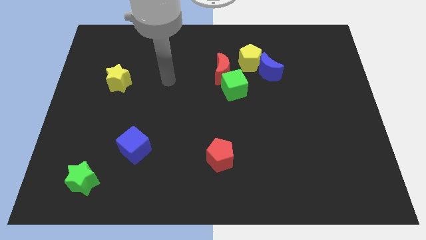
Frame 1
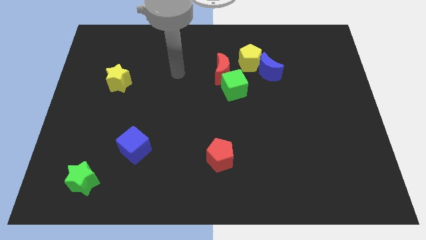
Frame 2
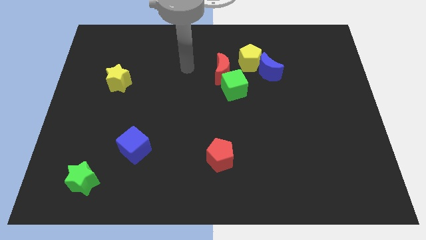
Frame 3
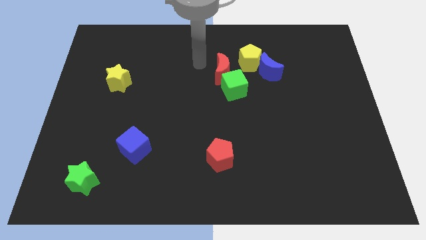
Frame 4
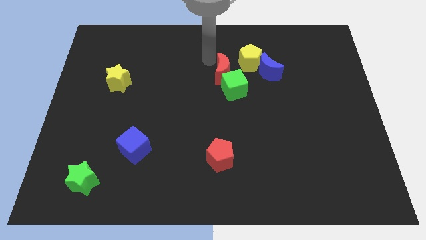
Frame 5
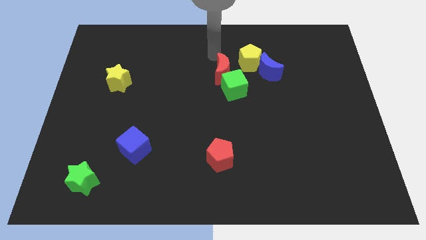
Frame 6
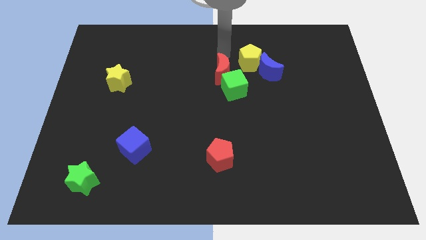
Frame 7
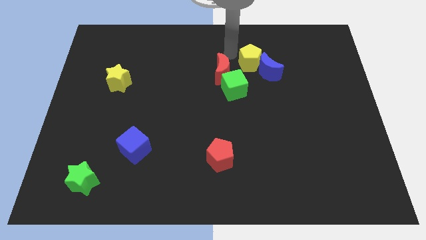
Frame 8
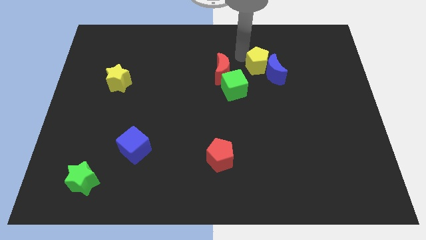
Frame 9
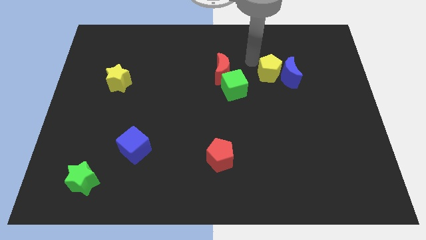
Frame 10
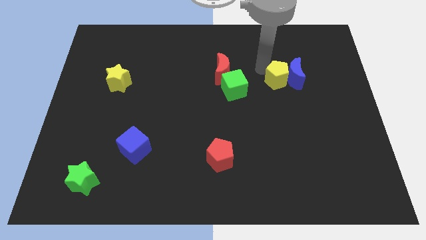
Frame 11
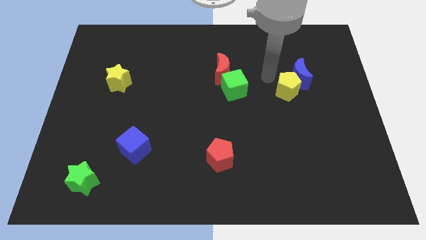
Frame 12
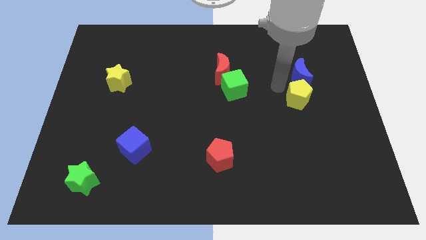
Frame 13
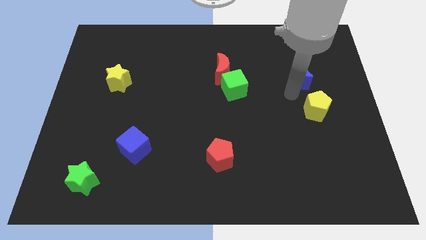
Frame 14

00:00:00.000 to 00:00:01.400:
move the blue moon away from the yellow pentagon

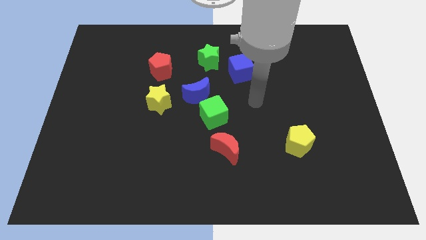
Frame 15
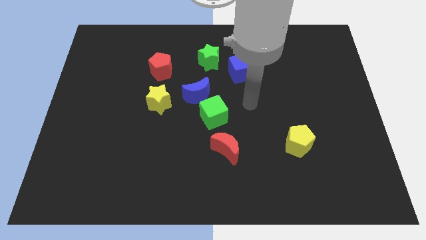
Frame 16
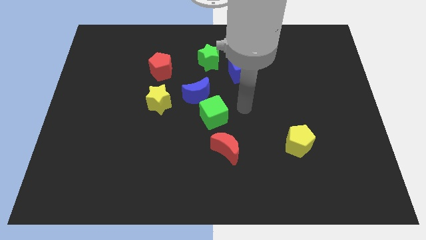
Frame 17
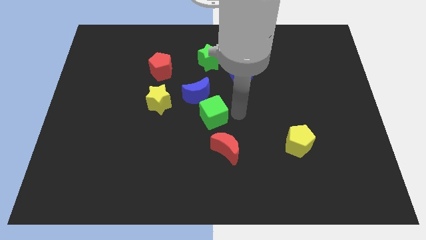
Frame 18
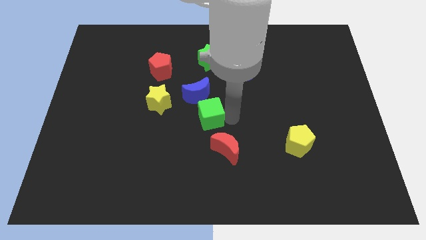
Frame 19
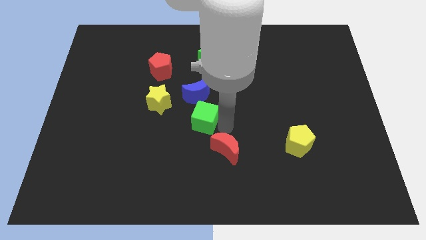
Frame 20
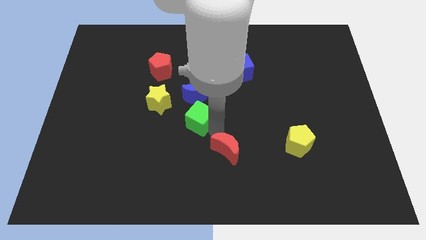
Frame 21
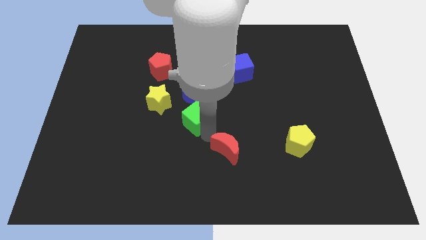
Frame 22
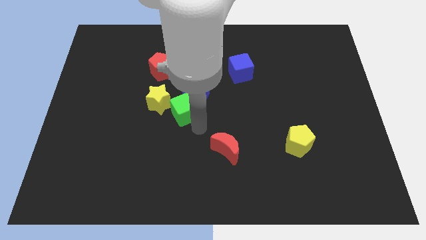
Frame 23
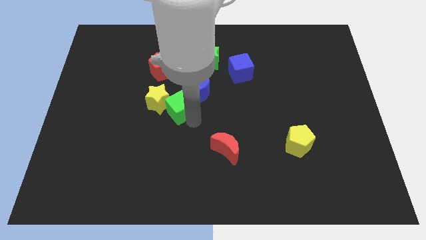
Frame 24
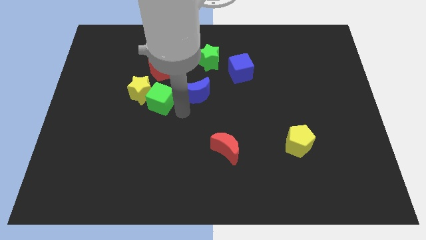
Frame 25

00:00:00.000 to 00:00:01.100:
separate the blue moon from the green cube and yellow star

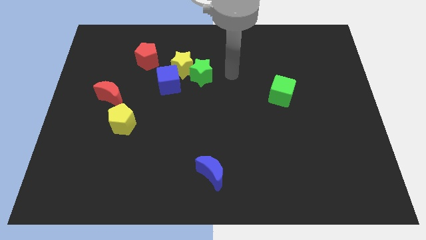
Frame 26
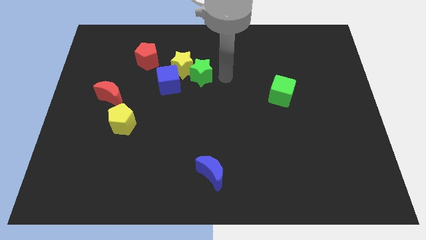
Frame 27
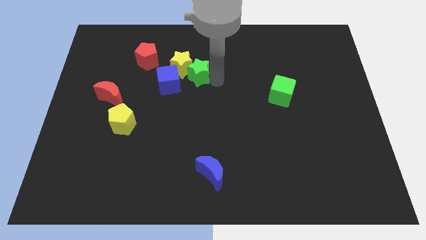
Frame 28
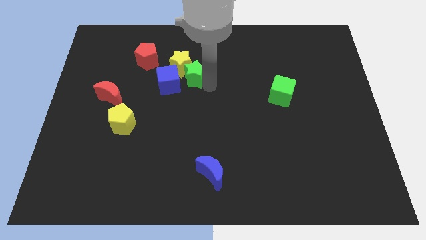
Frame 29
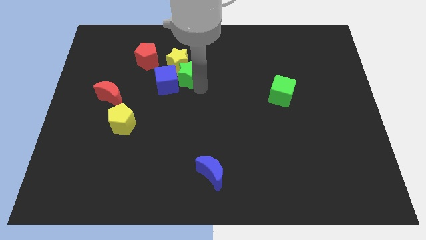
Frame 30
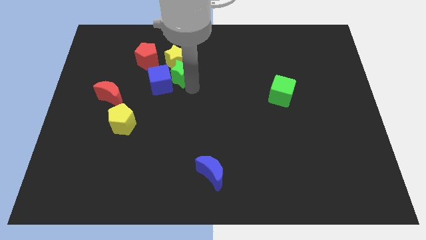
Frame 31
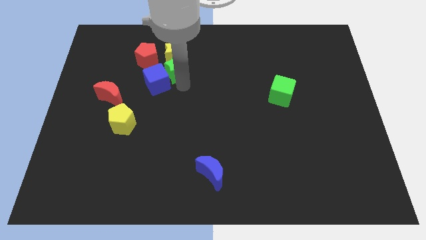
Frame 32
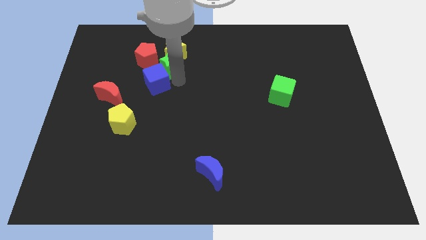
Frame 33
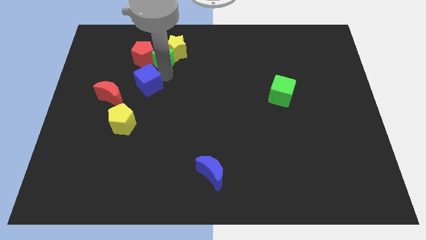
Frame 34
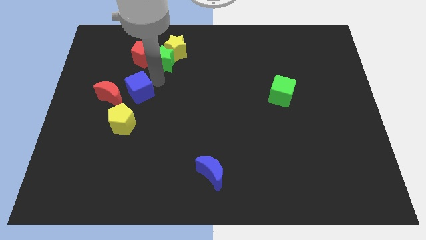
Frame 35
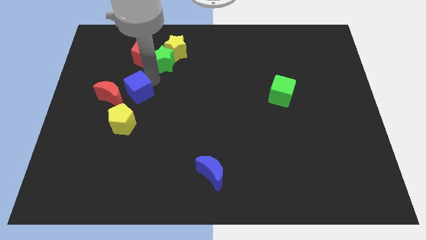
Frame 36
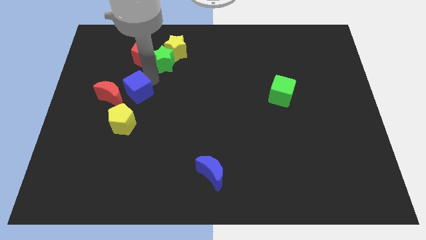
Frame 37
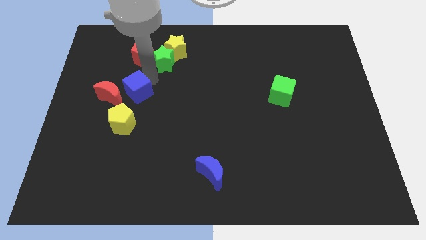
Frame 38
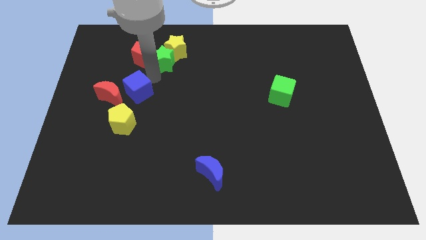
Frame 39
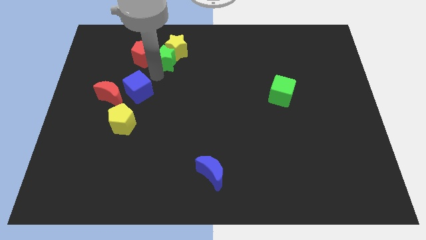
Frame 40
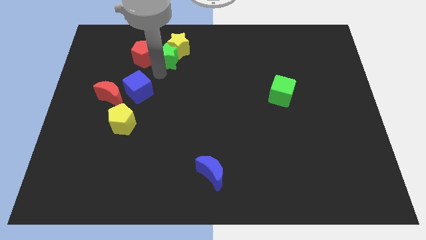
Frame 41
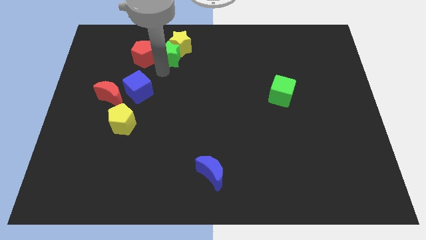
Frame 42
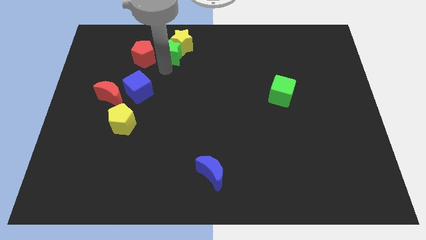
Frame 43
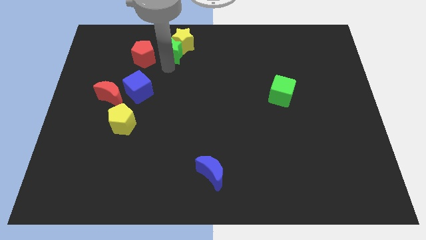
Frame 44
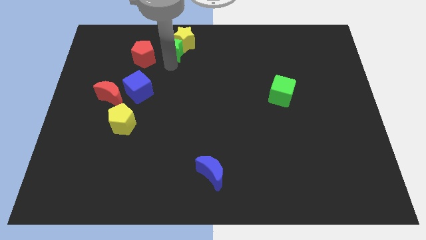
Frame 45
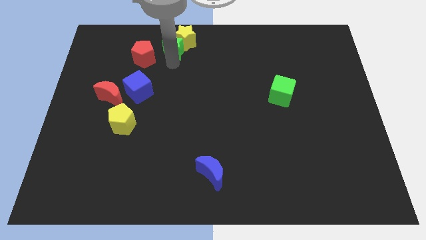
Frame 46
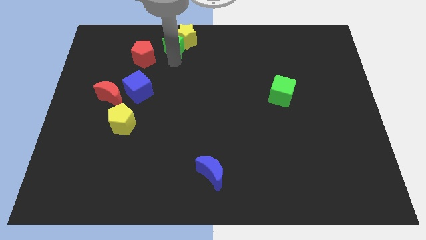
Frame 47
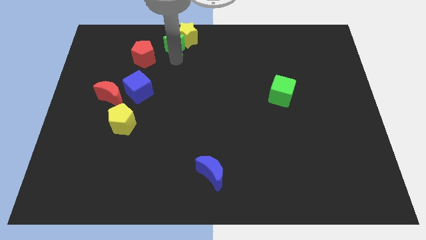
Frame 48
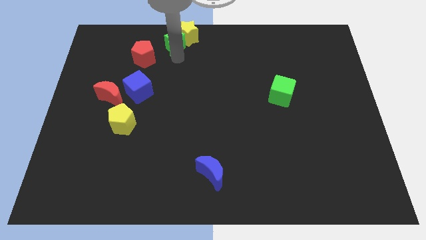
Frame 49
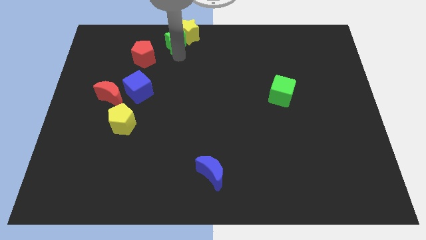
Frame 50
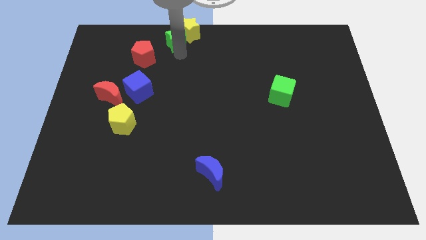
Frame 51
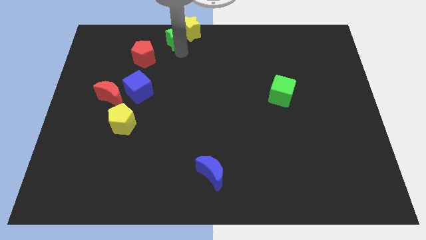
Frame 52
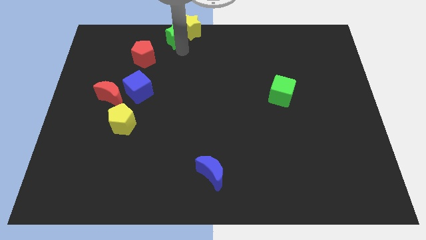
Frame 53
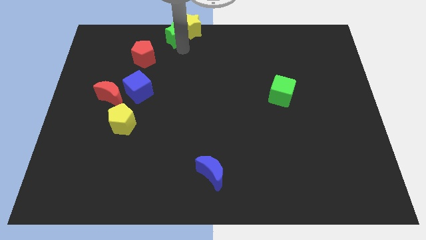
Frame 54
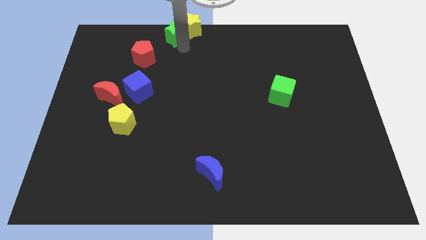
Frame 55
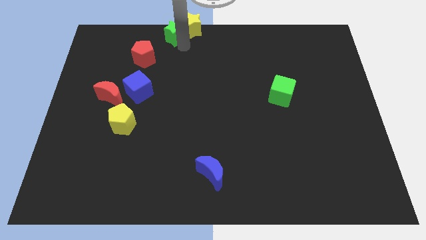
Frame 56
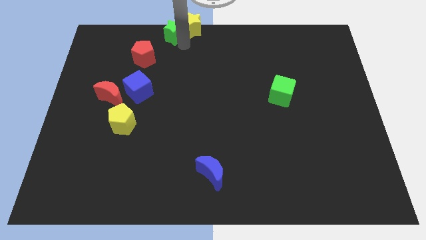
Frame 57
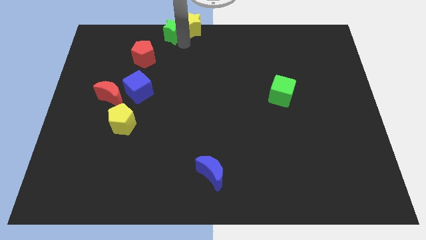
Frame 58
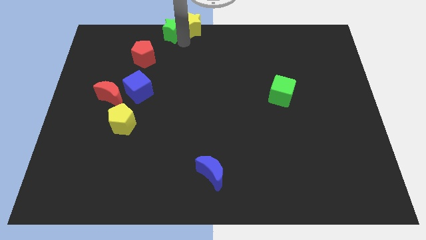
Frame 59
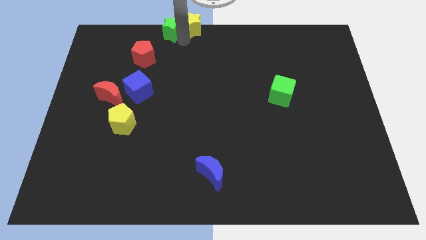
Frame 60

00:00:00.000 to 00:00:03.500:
pull the green star apart from the yellow star and blue cube

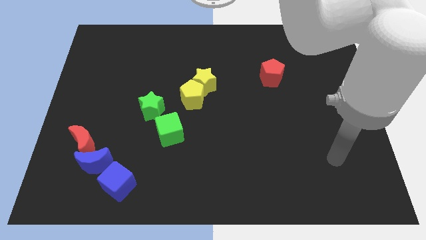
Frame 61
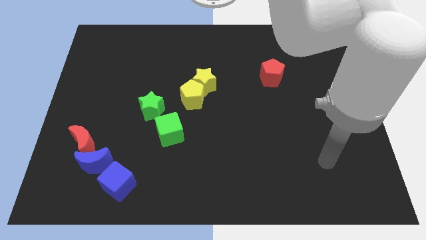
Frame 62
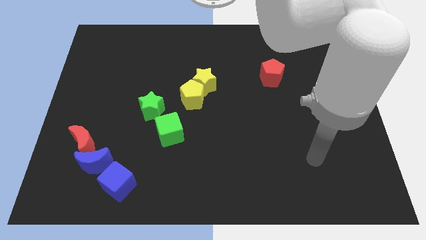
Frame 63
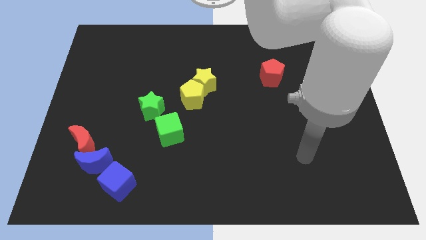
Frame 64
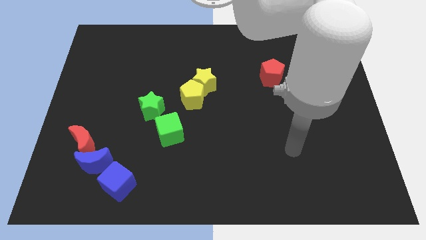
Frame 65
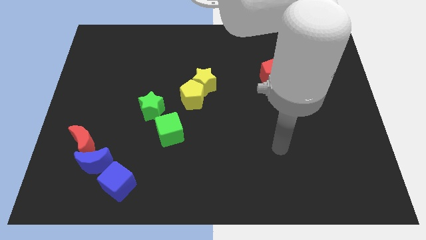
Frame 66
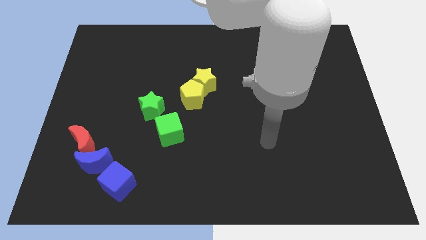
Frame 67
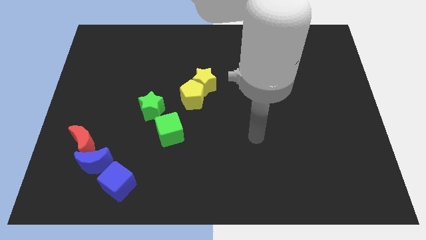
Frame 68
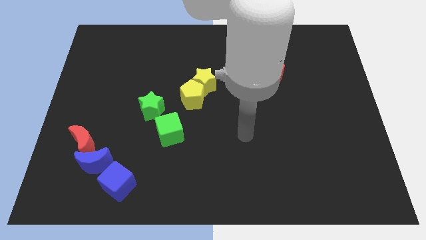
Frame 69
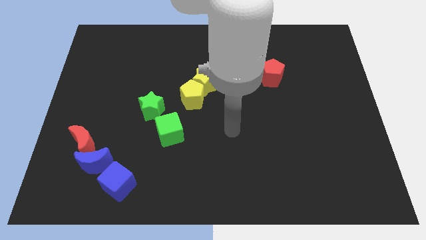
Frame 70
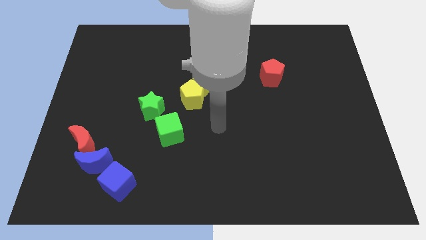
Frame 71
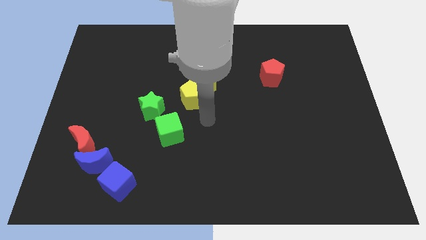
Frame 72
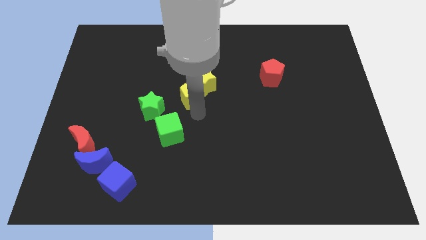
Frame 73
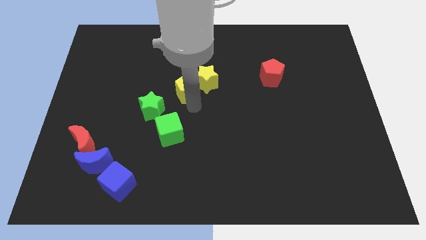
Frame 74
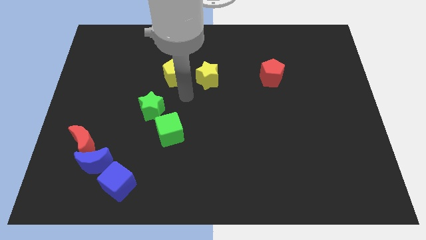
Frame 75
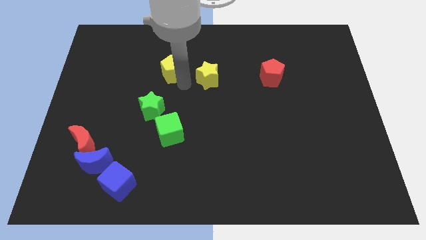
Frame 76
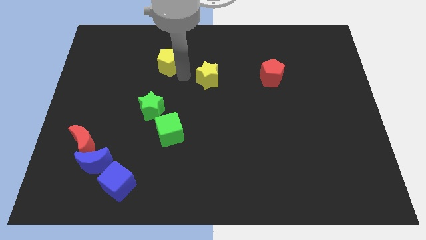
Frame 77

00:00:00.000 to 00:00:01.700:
pull the yellow star apart from the yellow pentagon

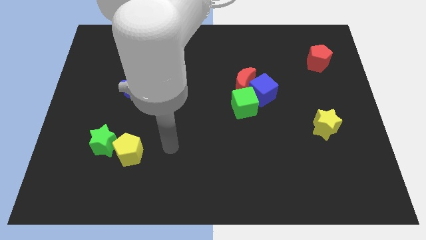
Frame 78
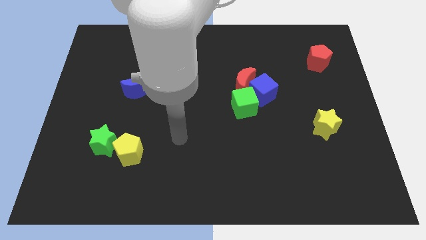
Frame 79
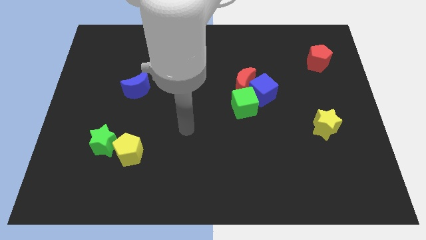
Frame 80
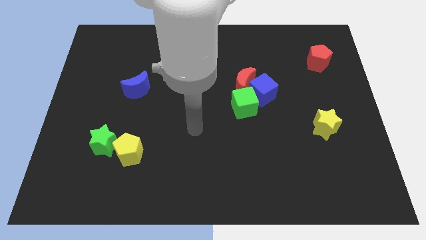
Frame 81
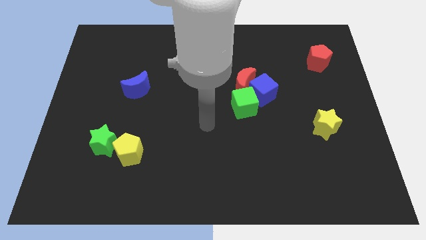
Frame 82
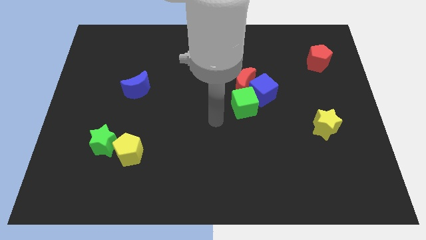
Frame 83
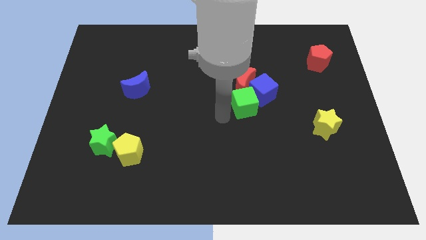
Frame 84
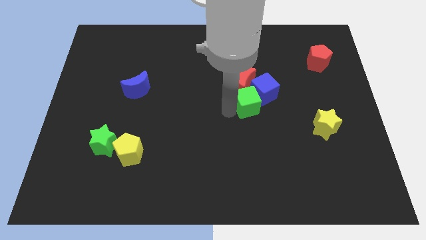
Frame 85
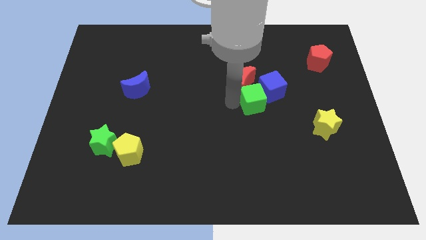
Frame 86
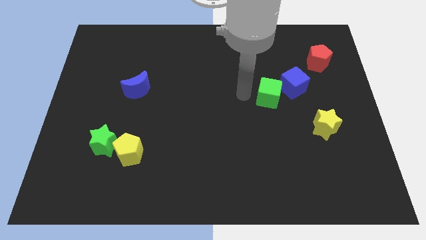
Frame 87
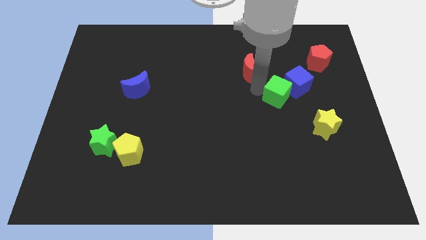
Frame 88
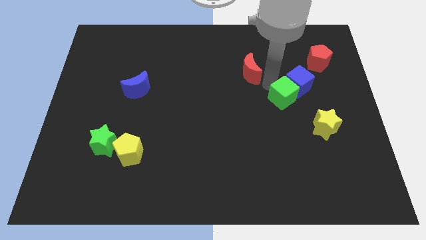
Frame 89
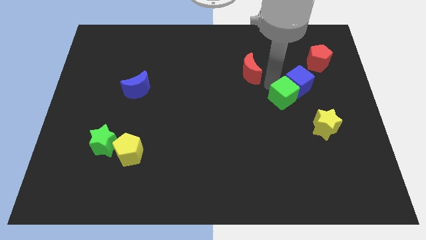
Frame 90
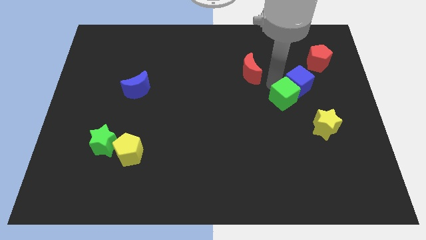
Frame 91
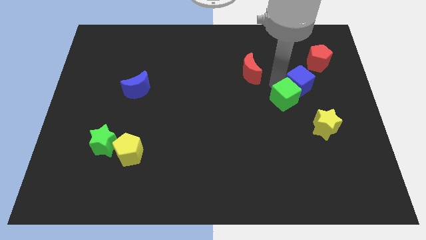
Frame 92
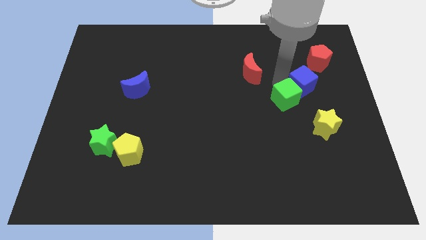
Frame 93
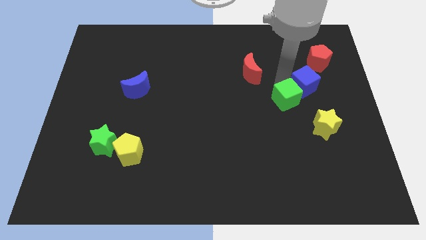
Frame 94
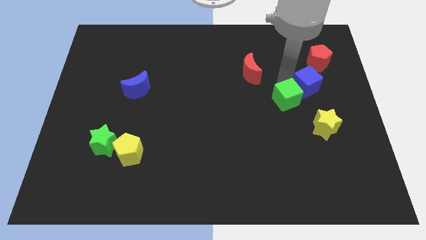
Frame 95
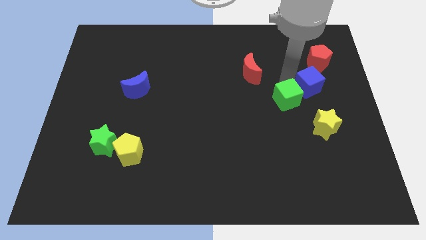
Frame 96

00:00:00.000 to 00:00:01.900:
pull the blue cube apart from the red moon and green cube
